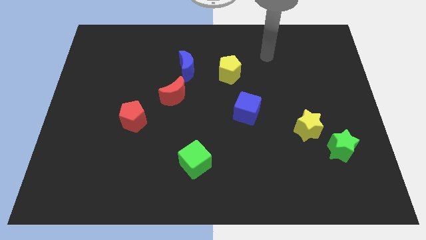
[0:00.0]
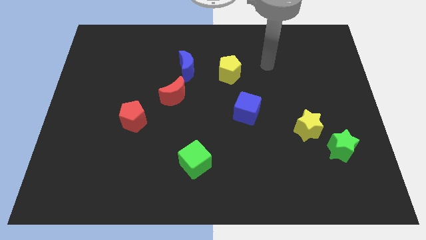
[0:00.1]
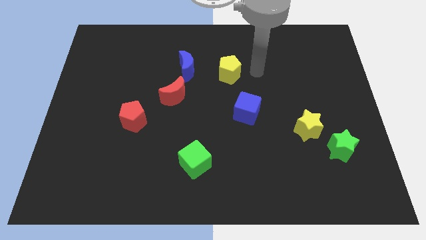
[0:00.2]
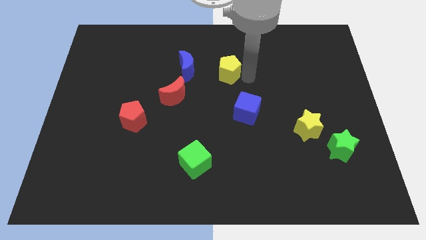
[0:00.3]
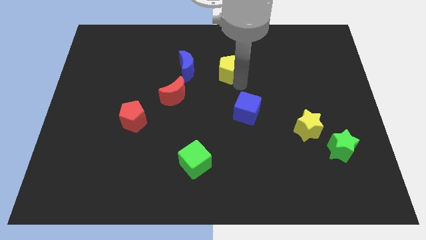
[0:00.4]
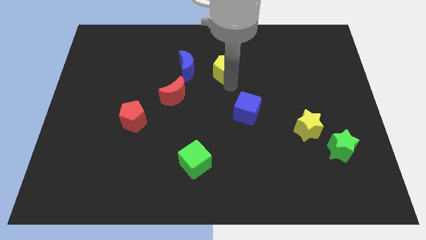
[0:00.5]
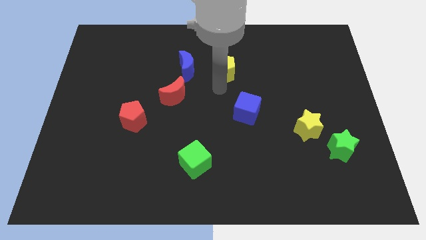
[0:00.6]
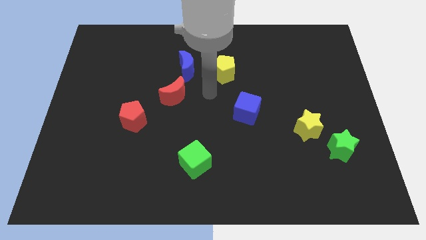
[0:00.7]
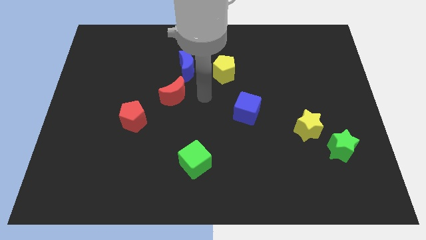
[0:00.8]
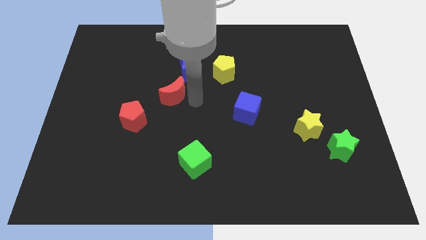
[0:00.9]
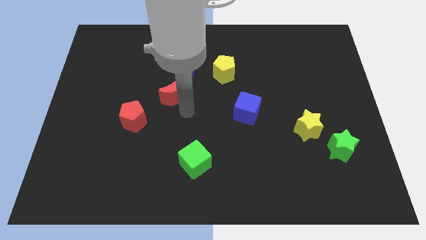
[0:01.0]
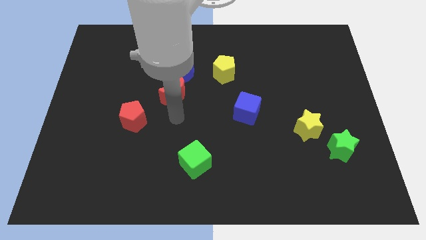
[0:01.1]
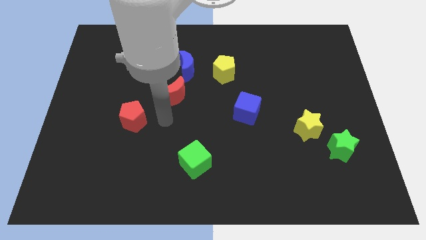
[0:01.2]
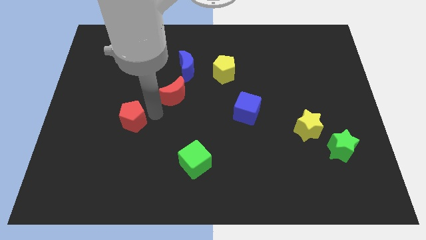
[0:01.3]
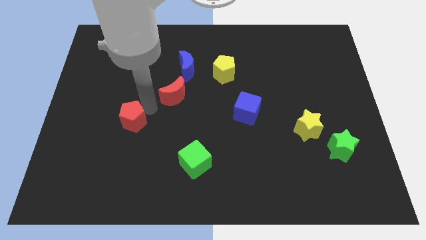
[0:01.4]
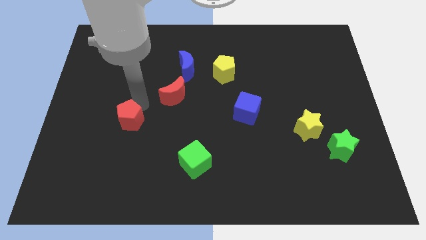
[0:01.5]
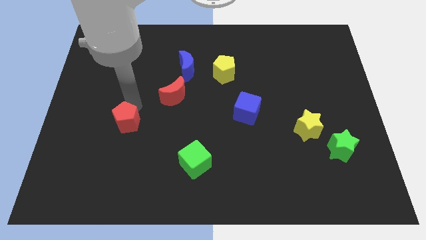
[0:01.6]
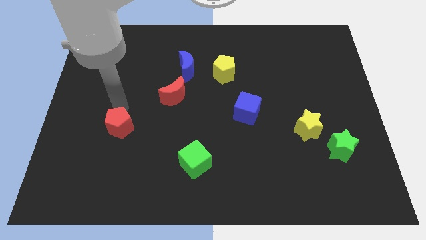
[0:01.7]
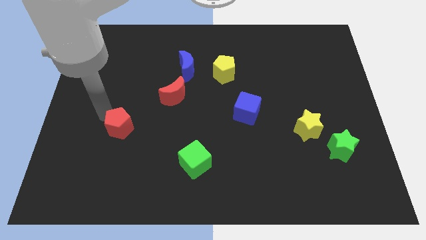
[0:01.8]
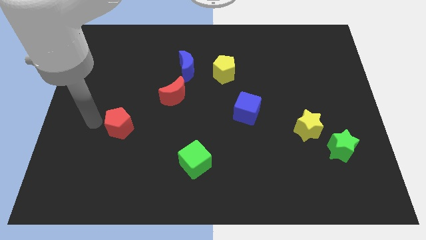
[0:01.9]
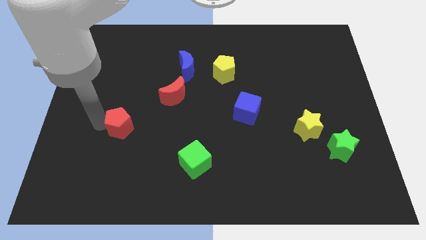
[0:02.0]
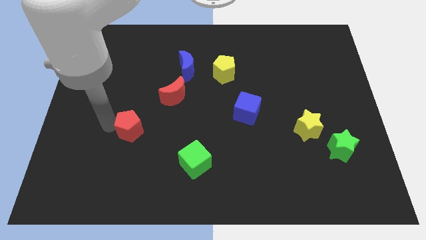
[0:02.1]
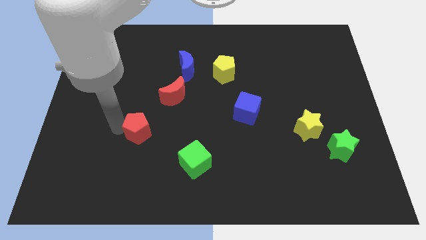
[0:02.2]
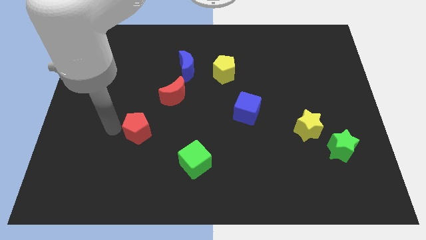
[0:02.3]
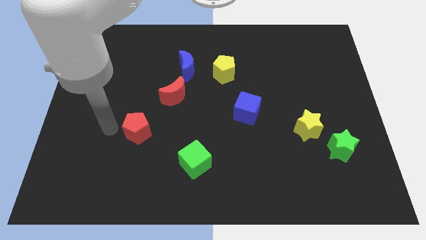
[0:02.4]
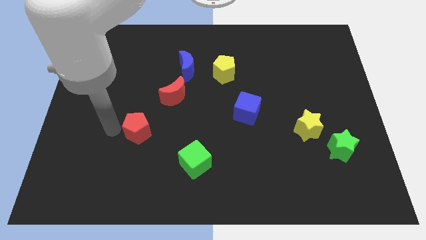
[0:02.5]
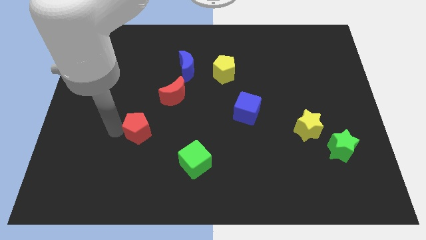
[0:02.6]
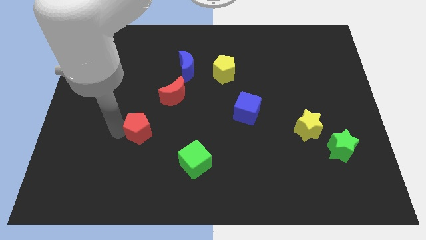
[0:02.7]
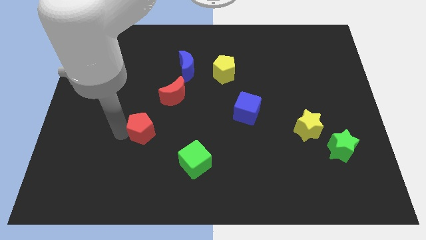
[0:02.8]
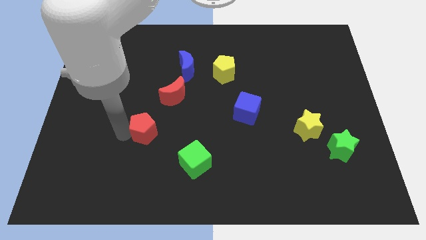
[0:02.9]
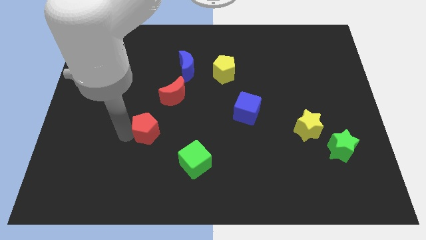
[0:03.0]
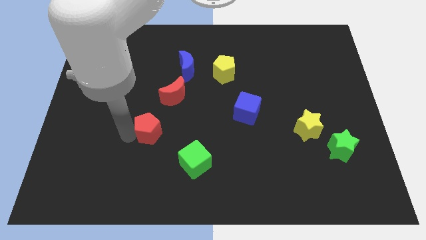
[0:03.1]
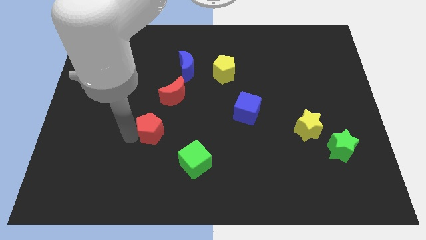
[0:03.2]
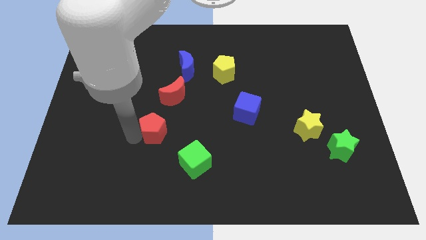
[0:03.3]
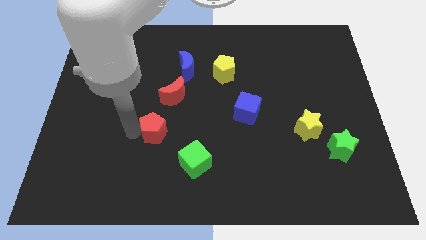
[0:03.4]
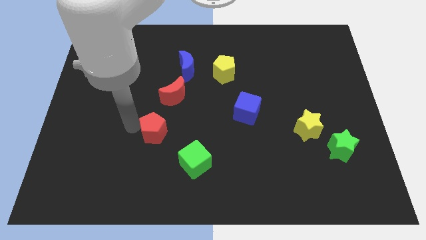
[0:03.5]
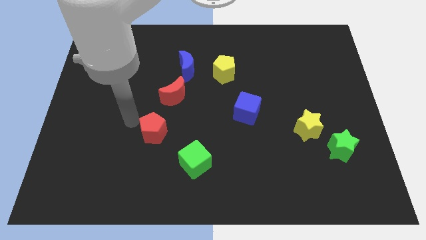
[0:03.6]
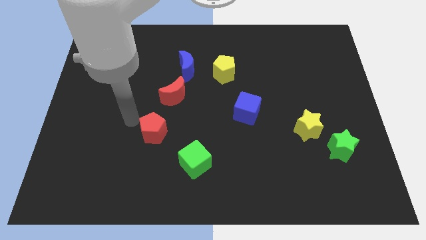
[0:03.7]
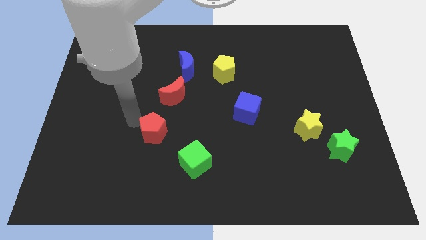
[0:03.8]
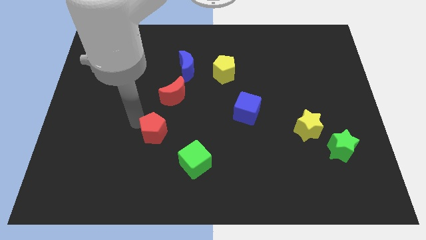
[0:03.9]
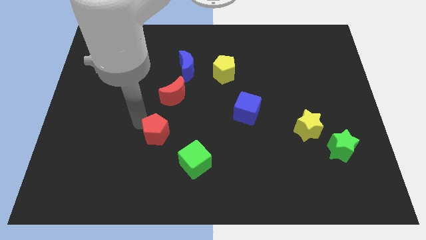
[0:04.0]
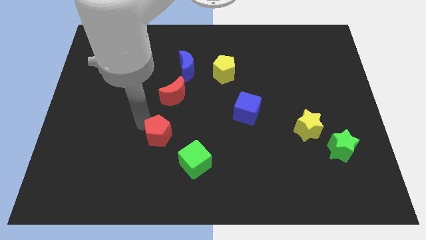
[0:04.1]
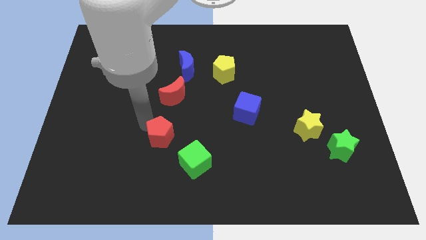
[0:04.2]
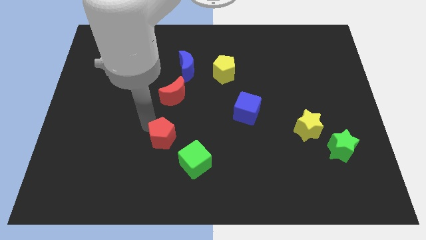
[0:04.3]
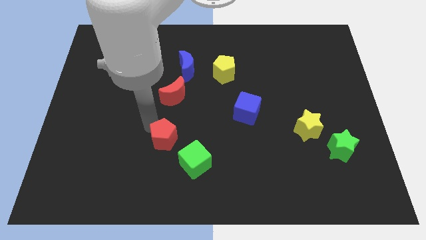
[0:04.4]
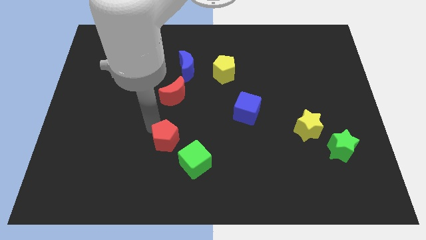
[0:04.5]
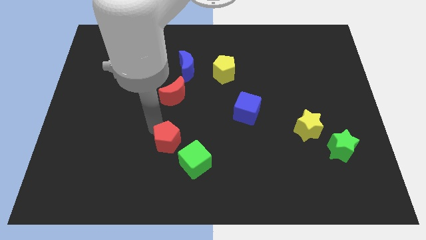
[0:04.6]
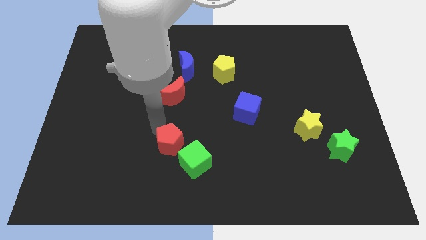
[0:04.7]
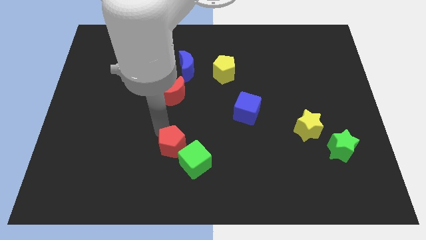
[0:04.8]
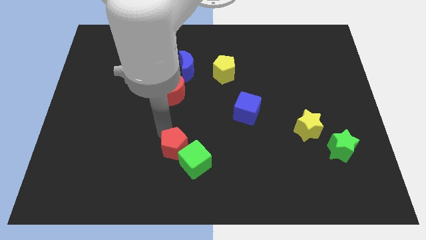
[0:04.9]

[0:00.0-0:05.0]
move the red pentagon close to the green cube

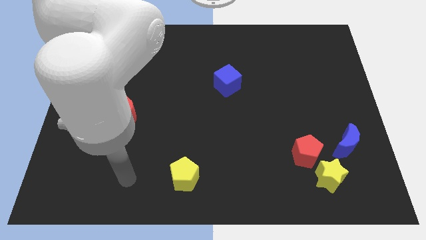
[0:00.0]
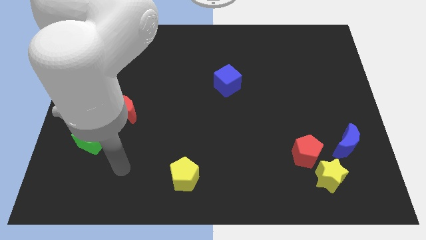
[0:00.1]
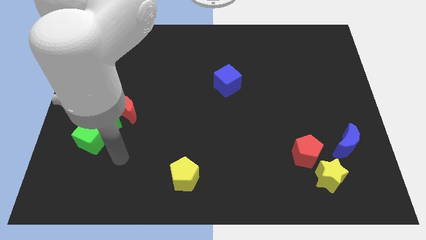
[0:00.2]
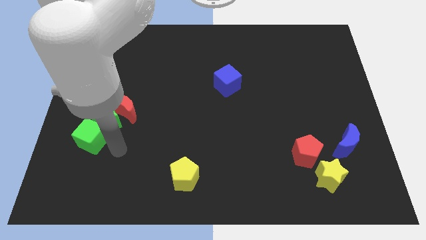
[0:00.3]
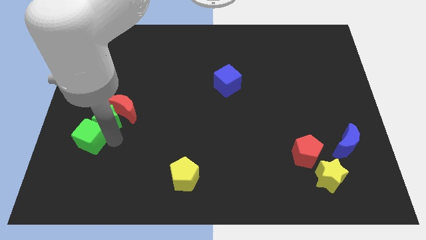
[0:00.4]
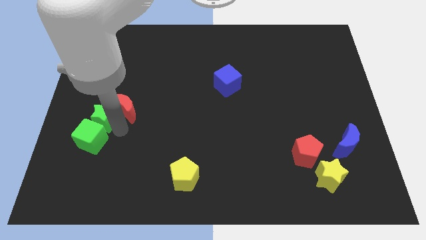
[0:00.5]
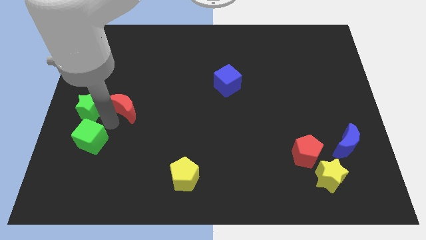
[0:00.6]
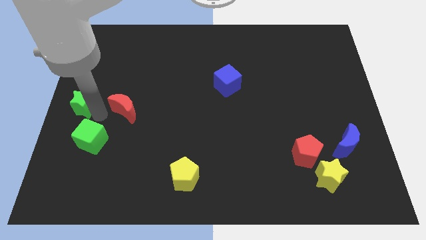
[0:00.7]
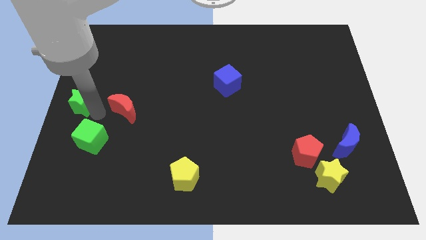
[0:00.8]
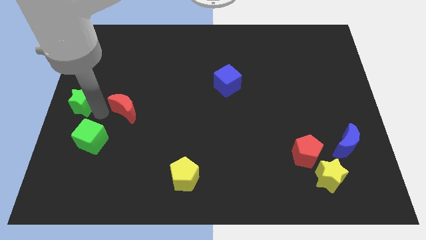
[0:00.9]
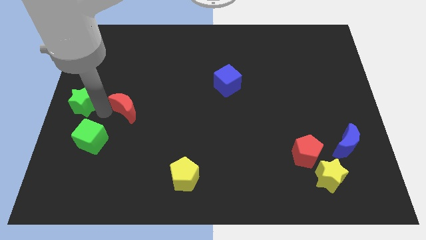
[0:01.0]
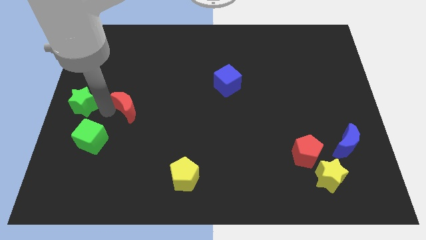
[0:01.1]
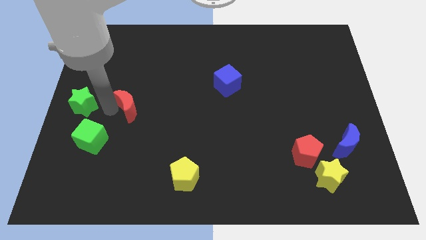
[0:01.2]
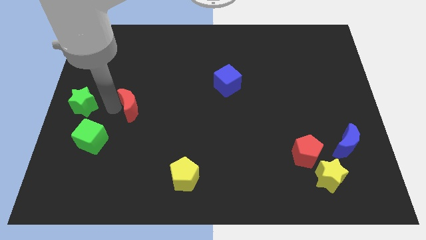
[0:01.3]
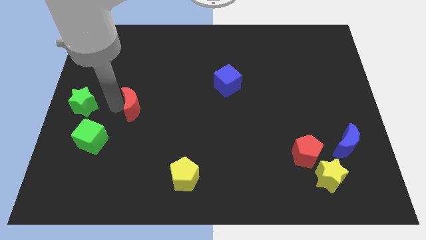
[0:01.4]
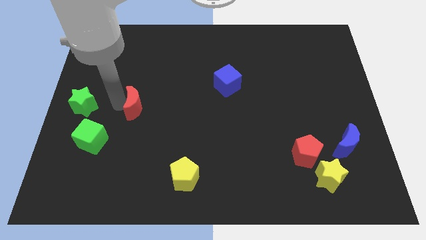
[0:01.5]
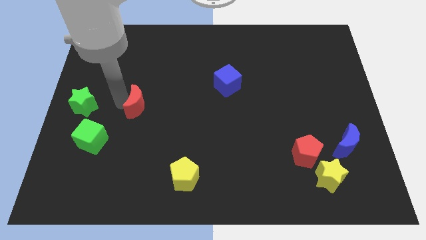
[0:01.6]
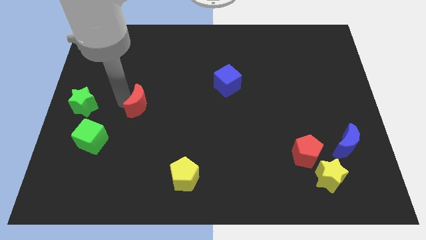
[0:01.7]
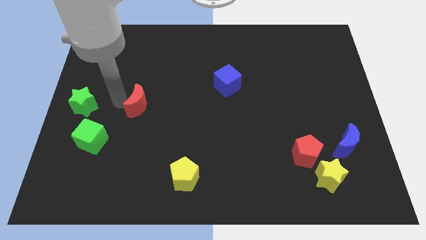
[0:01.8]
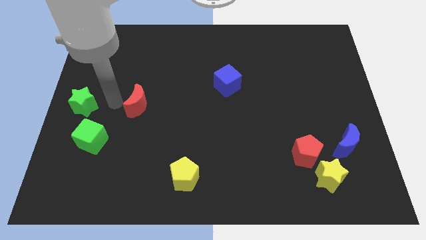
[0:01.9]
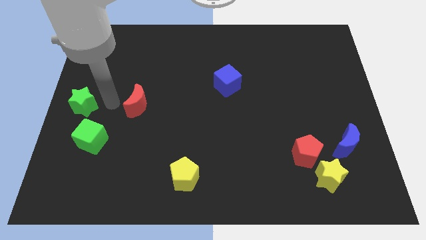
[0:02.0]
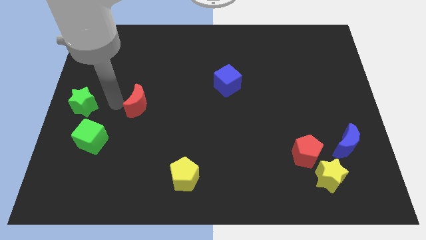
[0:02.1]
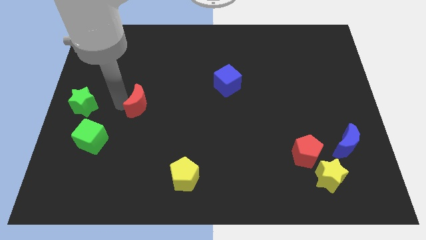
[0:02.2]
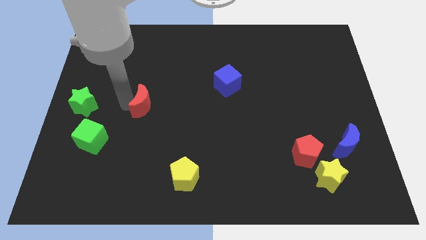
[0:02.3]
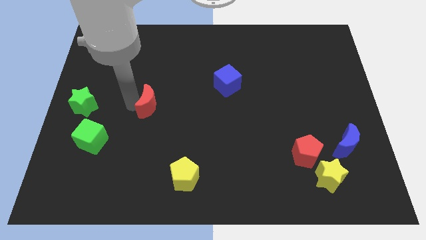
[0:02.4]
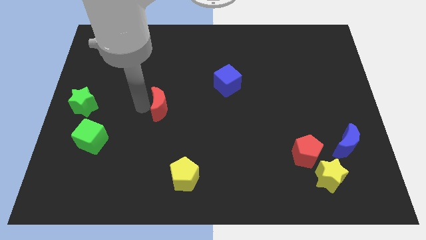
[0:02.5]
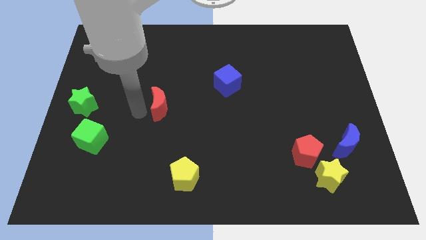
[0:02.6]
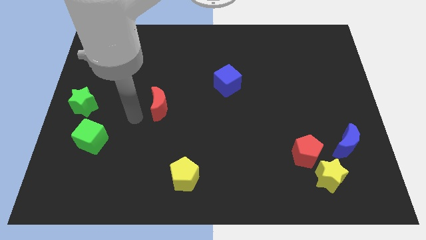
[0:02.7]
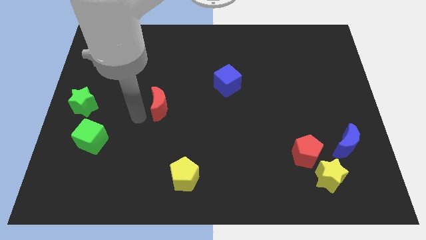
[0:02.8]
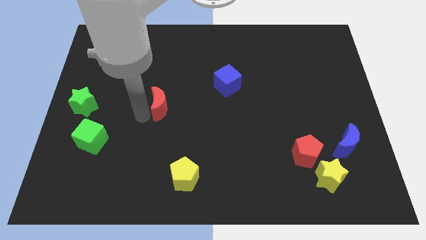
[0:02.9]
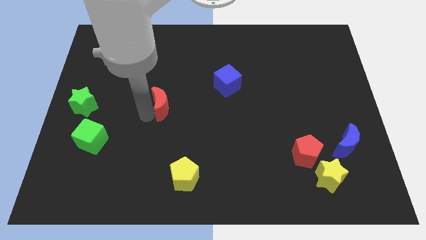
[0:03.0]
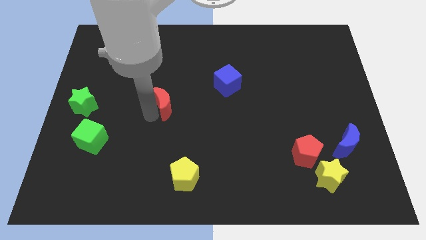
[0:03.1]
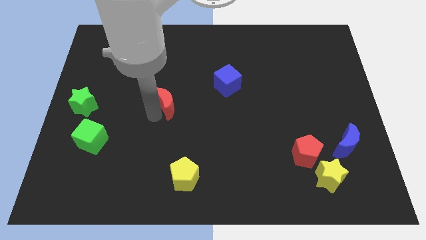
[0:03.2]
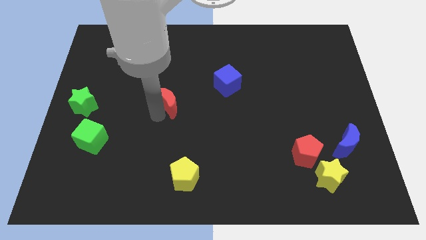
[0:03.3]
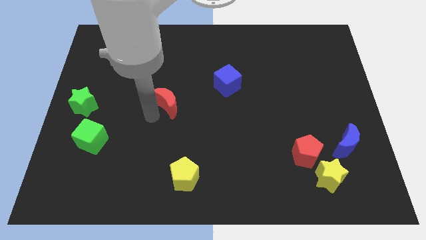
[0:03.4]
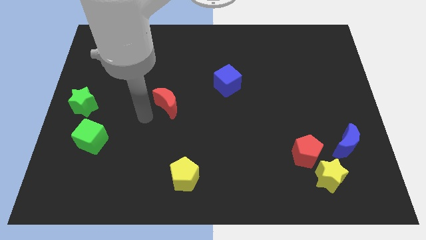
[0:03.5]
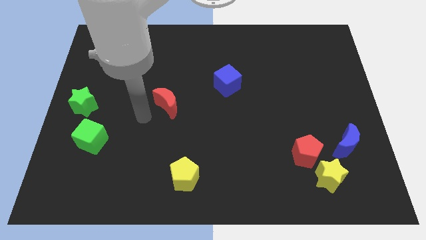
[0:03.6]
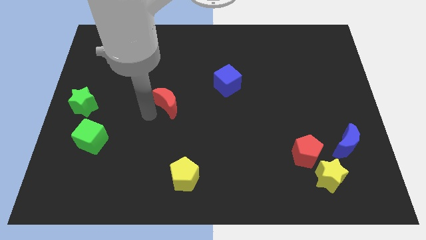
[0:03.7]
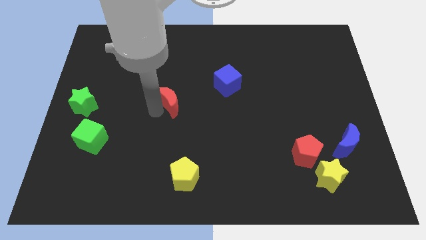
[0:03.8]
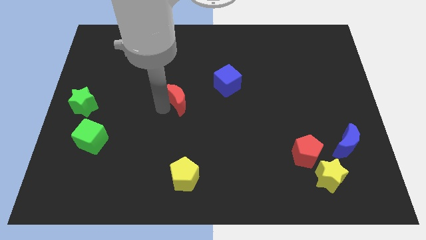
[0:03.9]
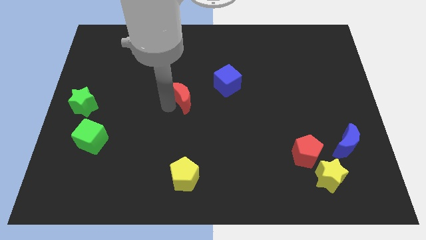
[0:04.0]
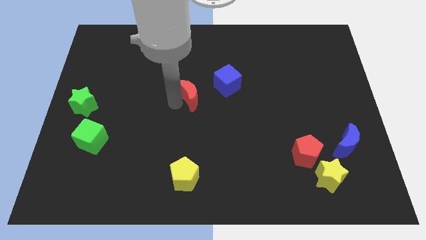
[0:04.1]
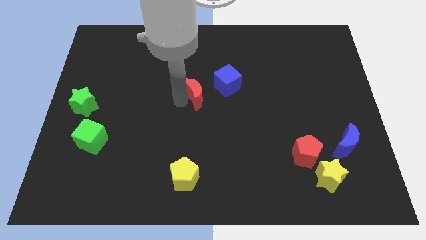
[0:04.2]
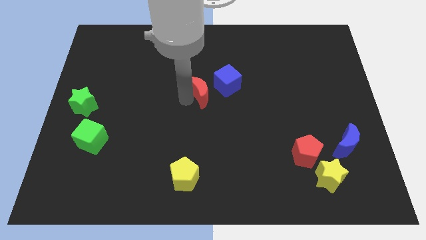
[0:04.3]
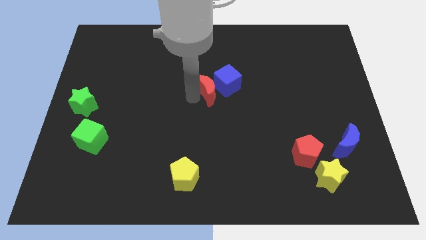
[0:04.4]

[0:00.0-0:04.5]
put the red moon close to the blue cube
